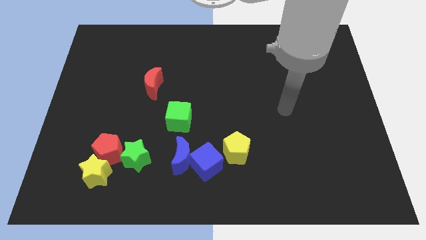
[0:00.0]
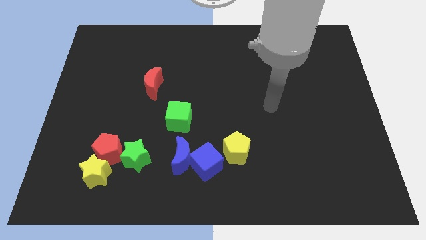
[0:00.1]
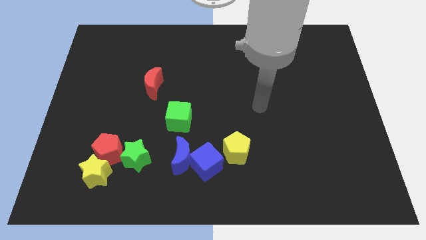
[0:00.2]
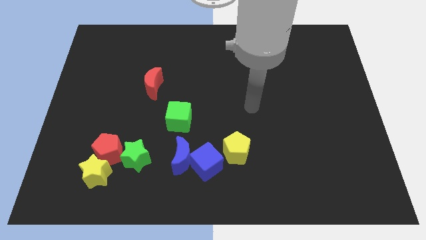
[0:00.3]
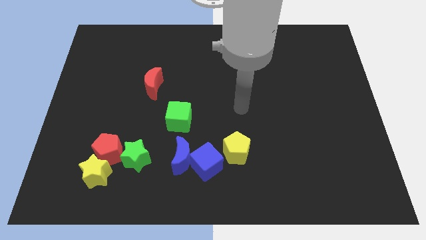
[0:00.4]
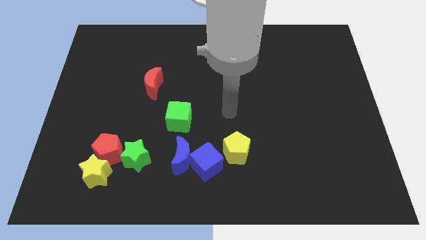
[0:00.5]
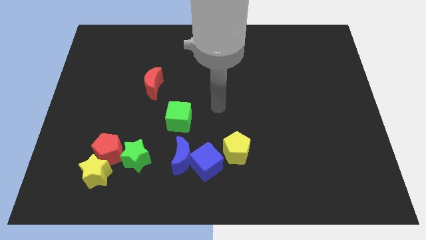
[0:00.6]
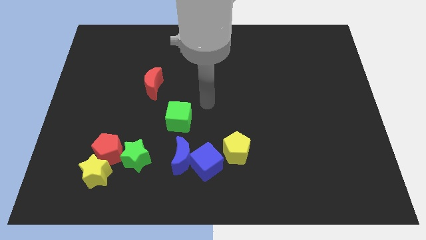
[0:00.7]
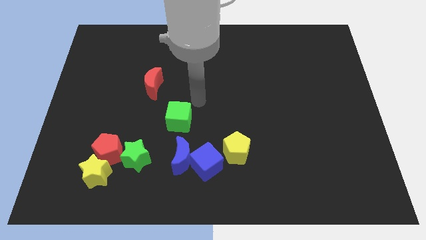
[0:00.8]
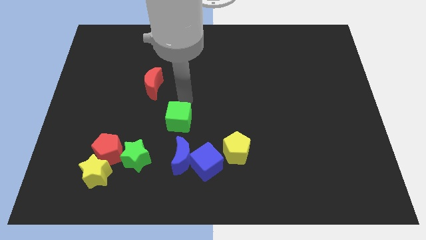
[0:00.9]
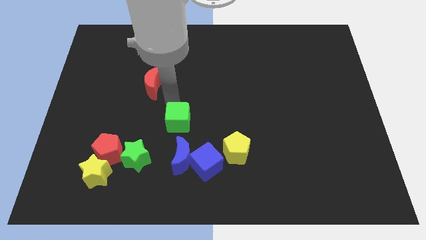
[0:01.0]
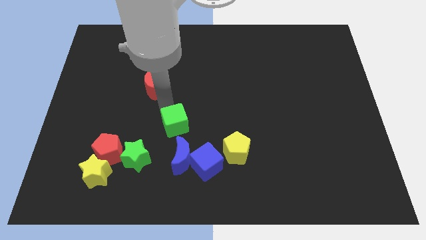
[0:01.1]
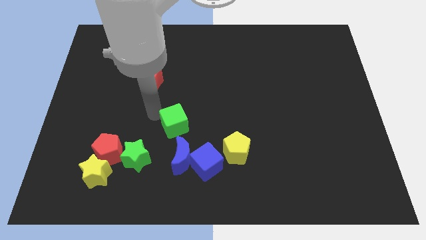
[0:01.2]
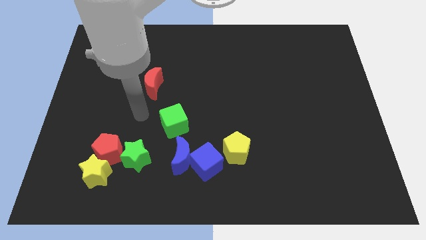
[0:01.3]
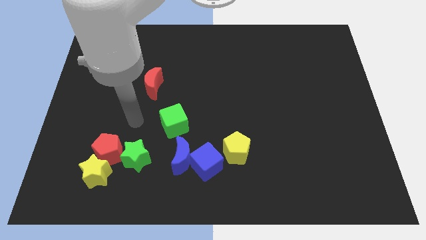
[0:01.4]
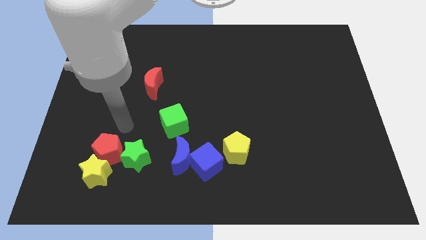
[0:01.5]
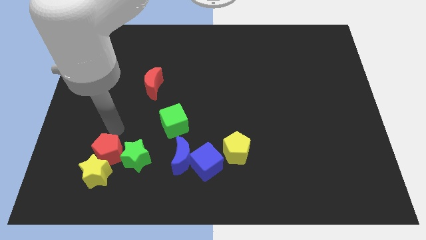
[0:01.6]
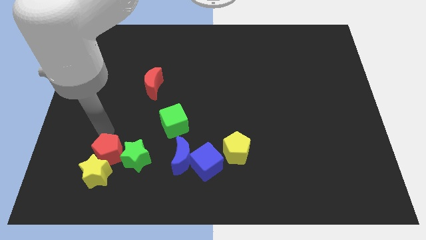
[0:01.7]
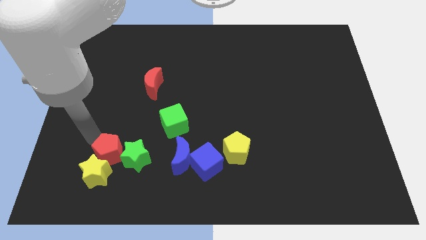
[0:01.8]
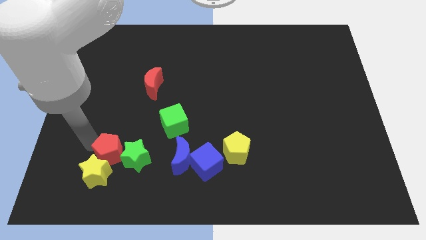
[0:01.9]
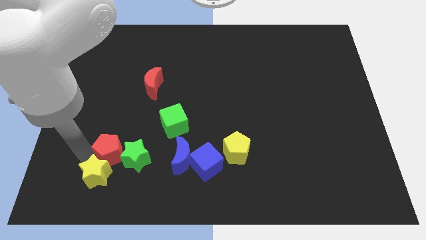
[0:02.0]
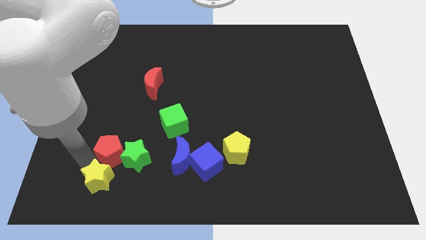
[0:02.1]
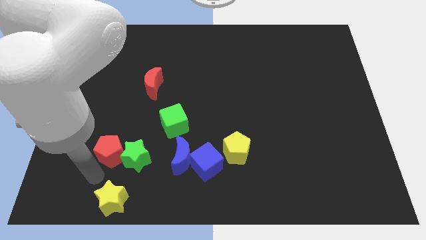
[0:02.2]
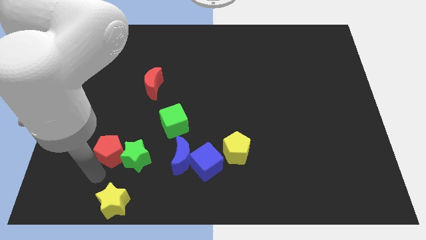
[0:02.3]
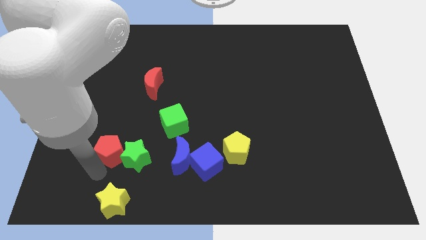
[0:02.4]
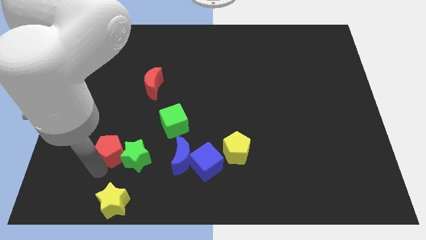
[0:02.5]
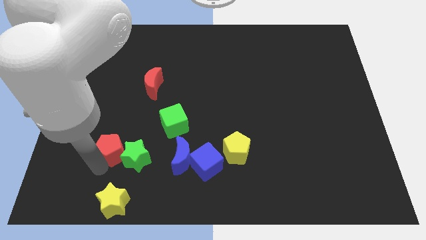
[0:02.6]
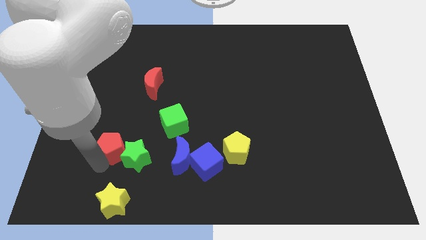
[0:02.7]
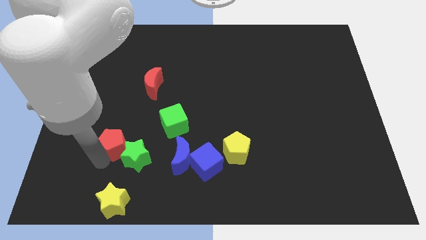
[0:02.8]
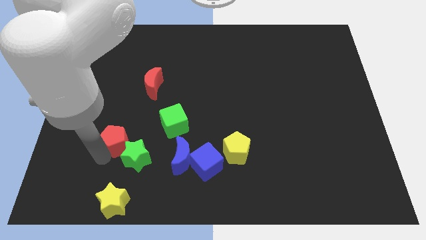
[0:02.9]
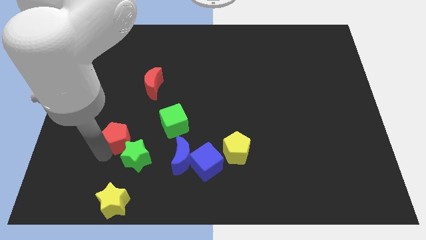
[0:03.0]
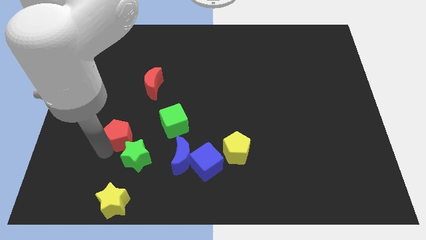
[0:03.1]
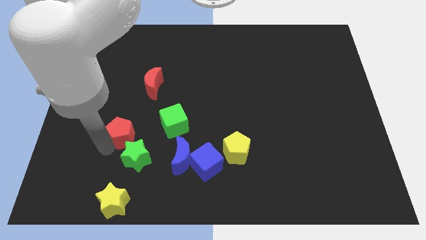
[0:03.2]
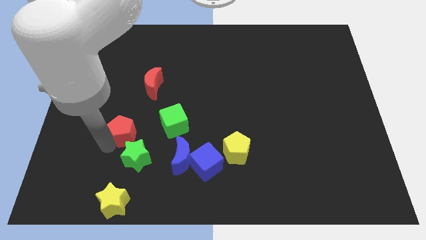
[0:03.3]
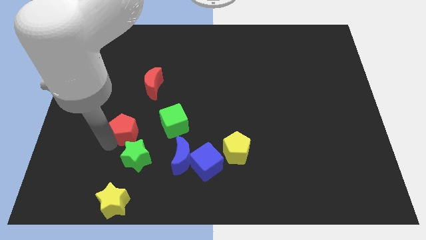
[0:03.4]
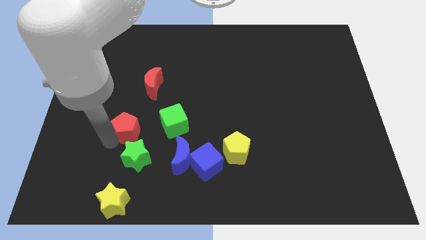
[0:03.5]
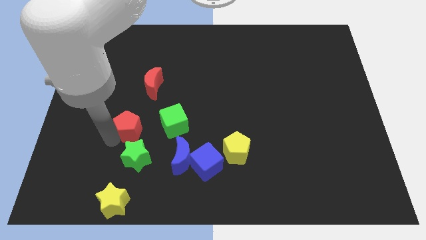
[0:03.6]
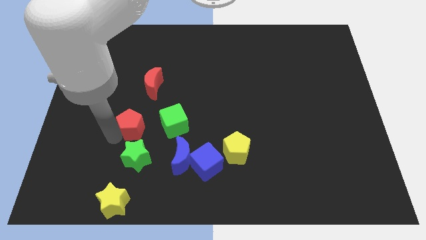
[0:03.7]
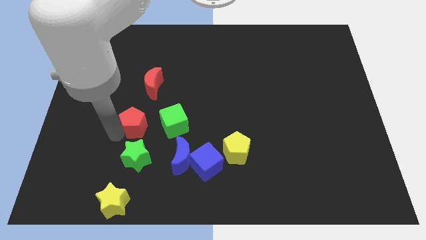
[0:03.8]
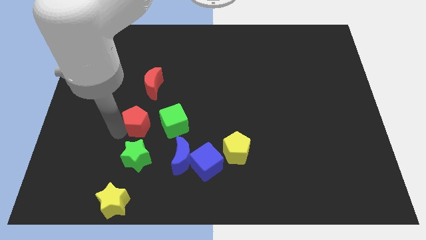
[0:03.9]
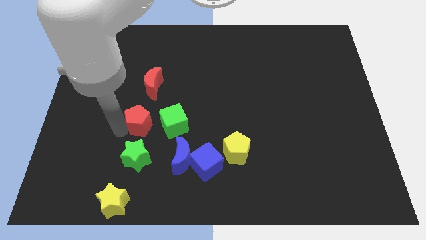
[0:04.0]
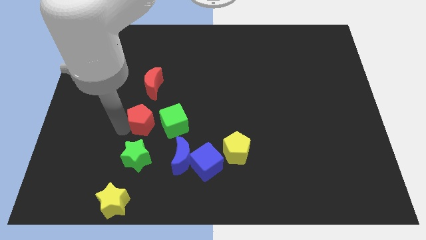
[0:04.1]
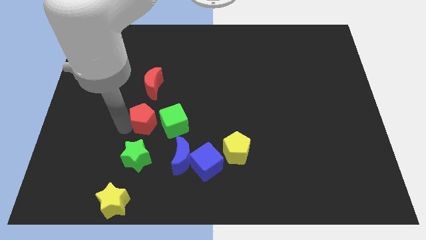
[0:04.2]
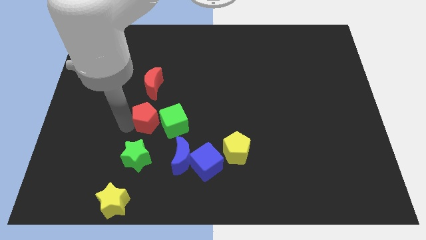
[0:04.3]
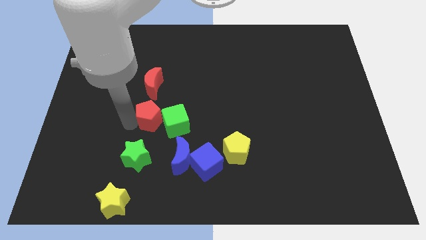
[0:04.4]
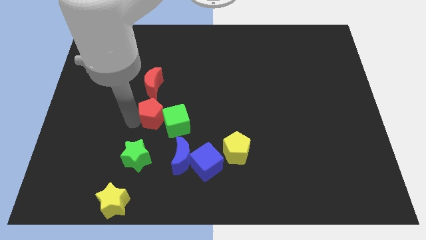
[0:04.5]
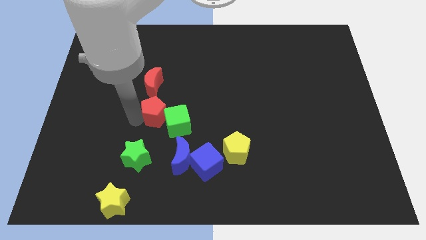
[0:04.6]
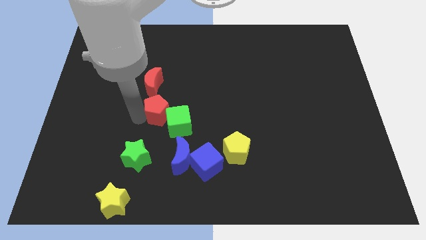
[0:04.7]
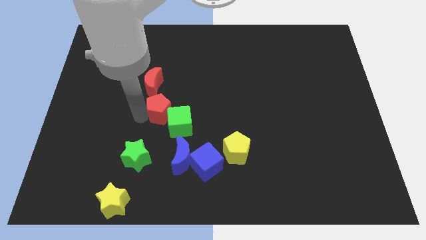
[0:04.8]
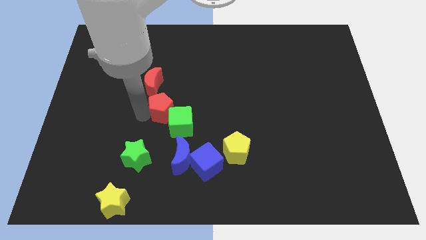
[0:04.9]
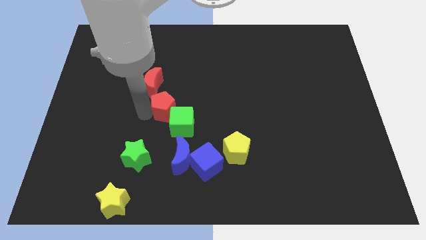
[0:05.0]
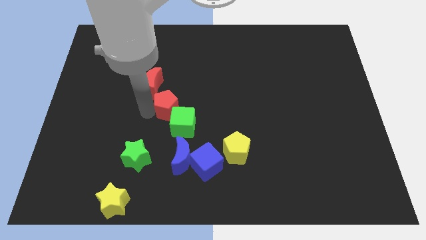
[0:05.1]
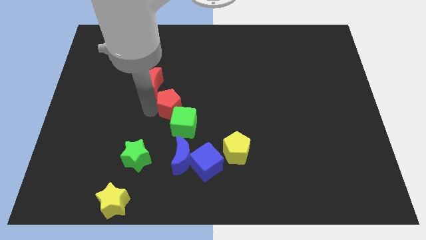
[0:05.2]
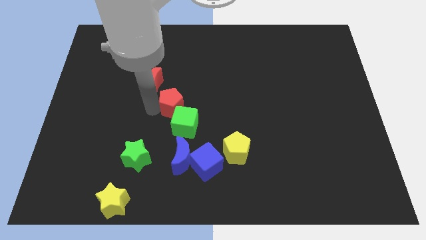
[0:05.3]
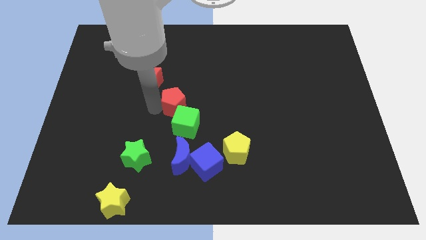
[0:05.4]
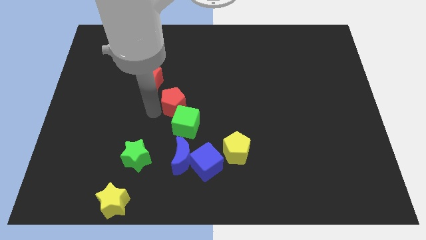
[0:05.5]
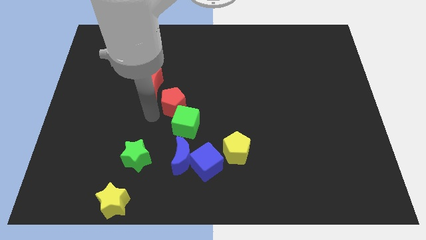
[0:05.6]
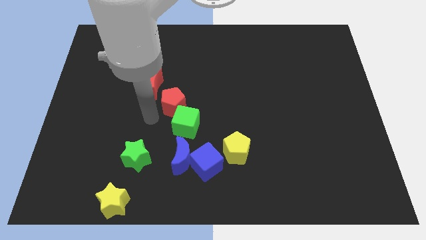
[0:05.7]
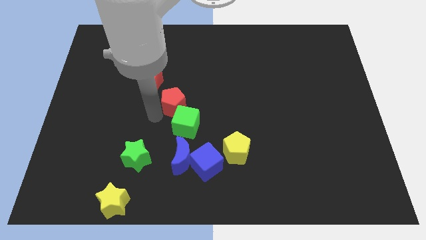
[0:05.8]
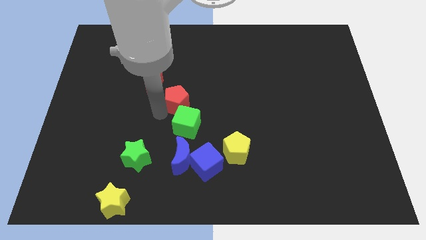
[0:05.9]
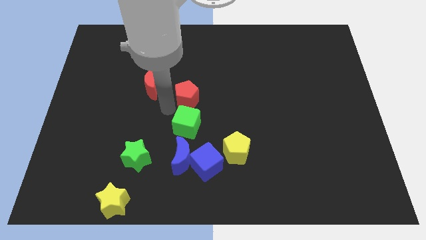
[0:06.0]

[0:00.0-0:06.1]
move the red pentagon up and then to the right

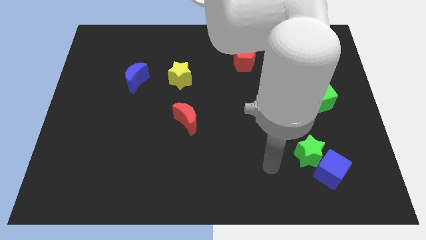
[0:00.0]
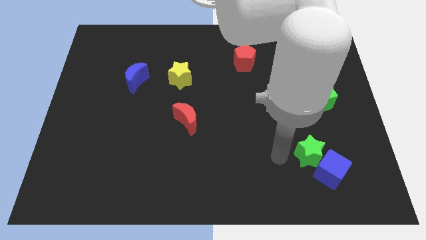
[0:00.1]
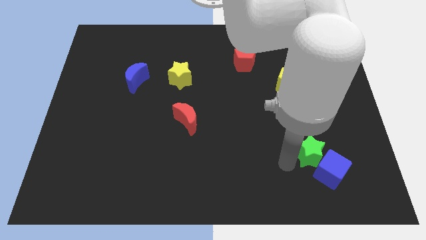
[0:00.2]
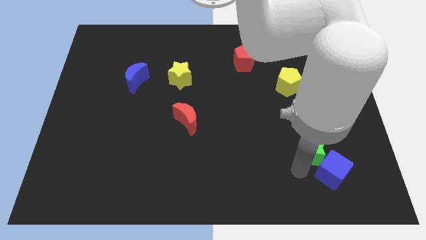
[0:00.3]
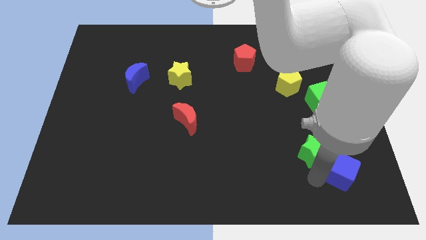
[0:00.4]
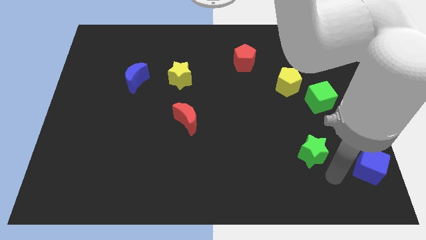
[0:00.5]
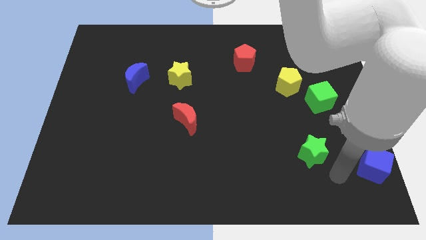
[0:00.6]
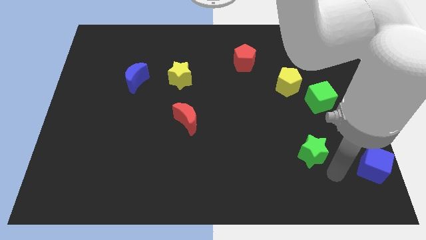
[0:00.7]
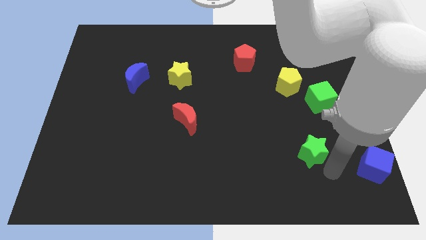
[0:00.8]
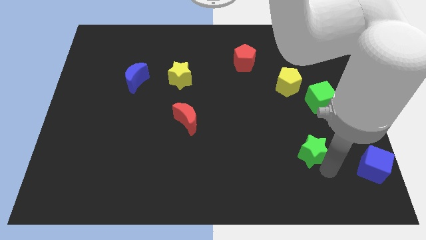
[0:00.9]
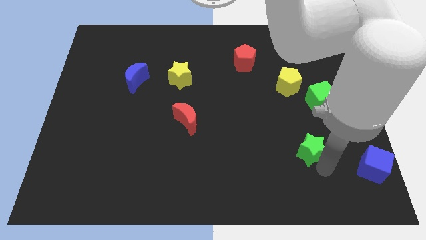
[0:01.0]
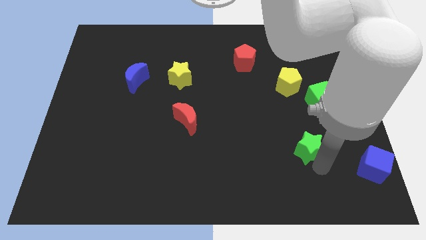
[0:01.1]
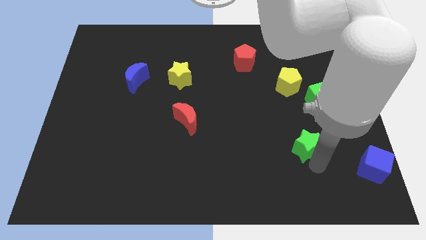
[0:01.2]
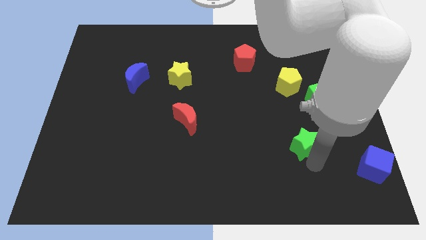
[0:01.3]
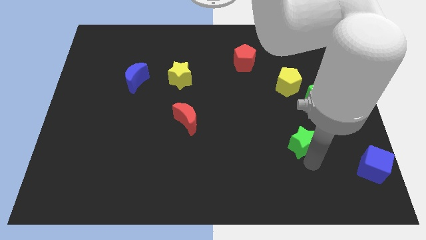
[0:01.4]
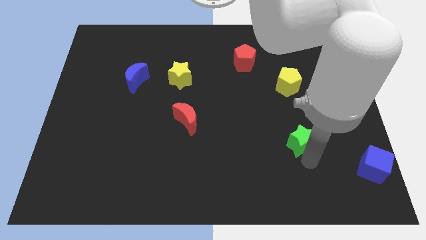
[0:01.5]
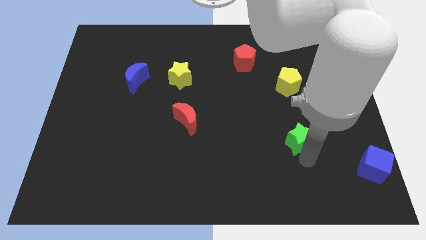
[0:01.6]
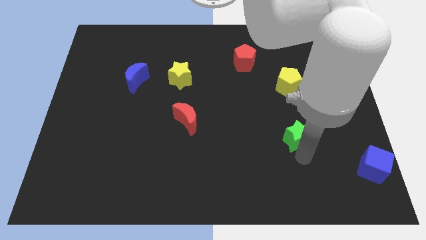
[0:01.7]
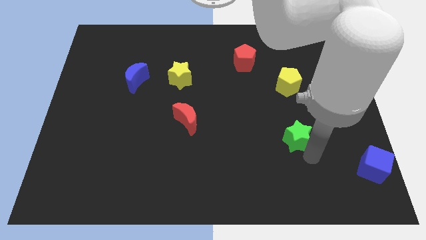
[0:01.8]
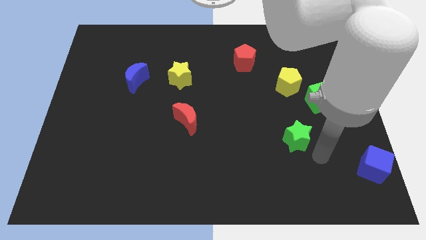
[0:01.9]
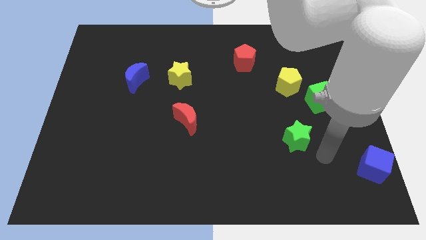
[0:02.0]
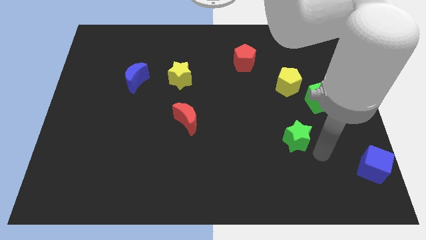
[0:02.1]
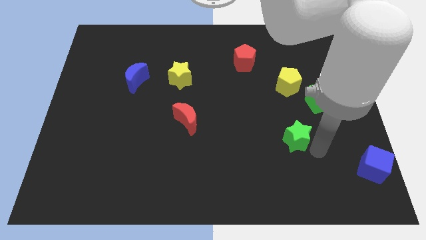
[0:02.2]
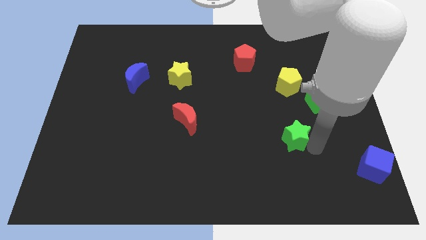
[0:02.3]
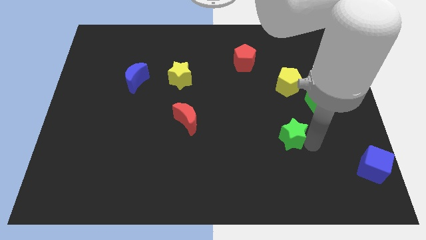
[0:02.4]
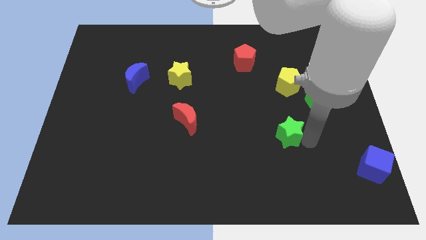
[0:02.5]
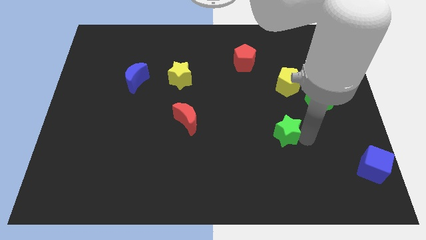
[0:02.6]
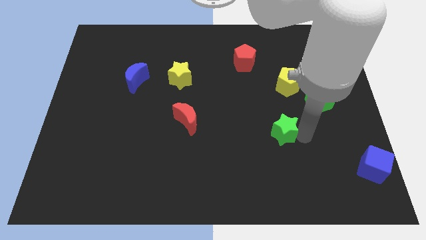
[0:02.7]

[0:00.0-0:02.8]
push the green star diagonally upwards and left a bit
